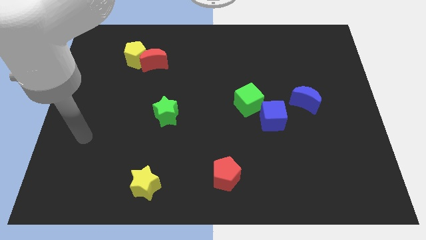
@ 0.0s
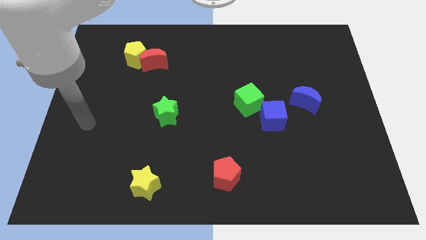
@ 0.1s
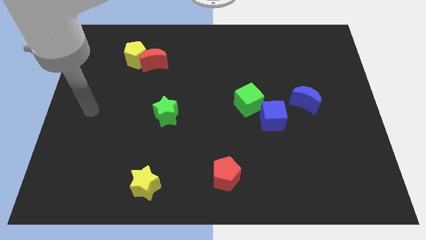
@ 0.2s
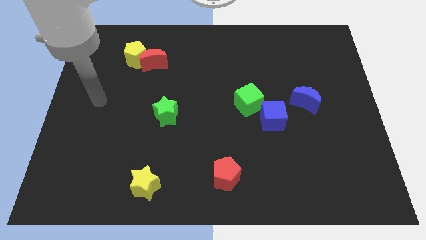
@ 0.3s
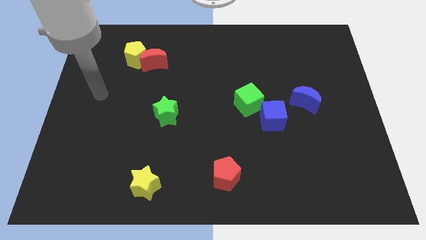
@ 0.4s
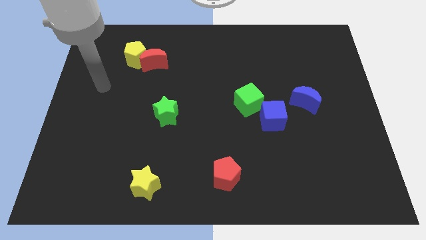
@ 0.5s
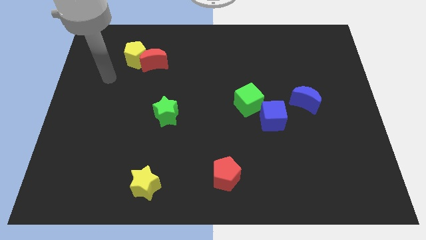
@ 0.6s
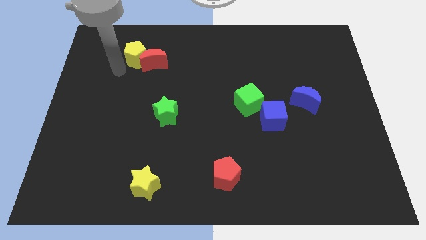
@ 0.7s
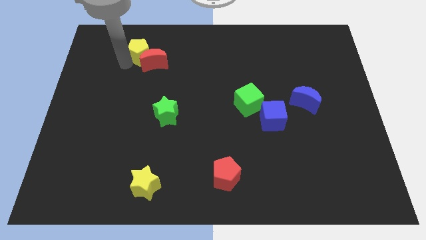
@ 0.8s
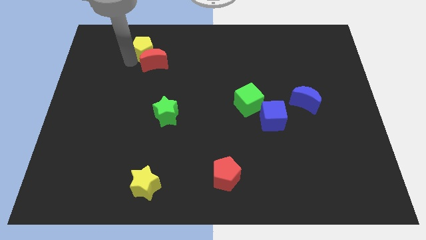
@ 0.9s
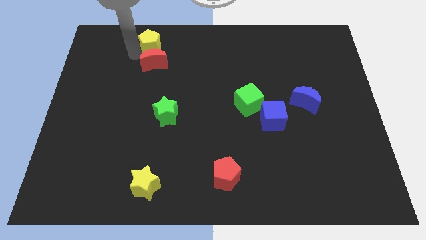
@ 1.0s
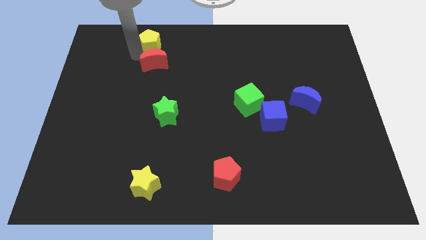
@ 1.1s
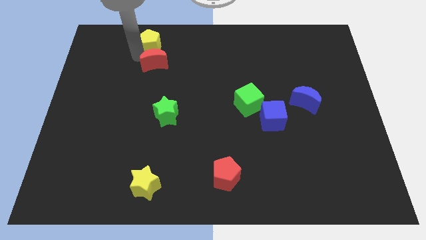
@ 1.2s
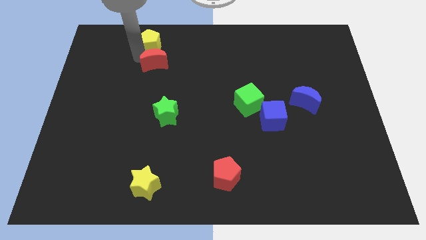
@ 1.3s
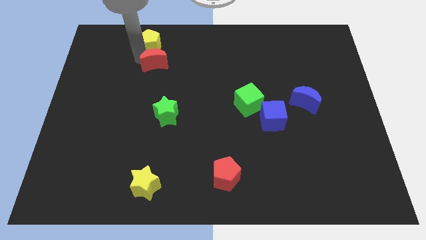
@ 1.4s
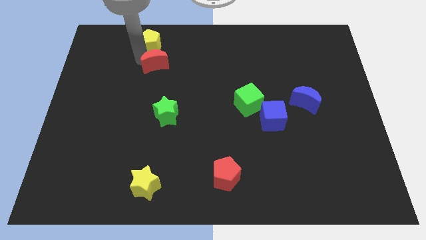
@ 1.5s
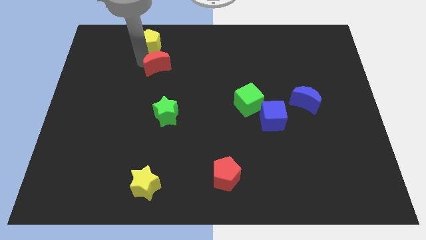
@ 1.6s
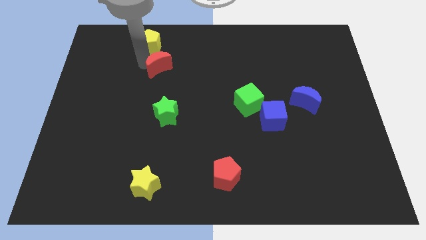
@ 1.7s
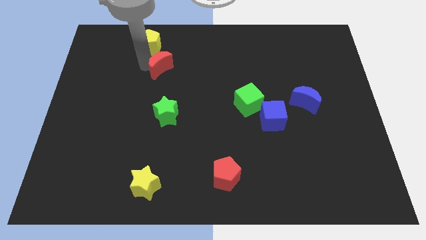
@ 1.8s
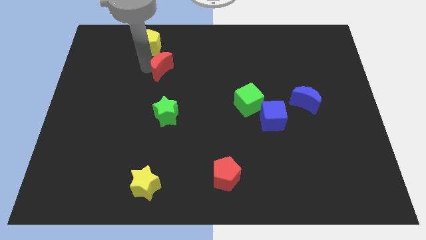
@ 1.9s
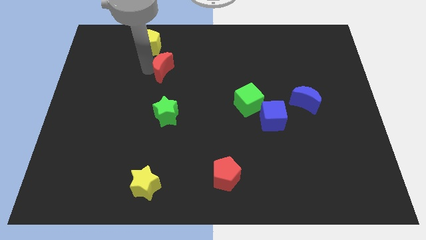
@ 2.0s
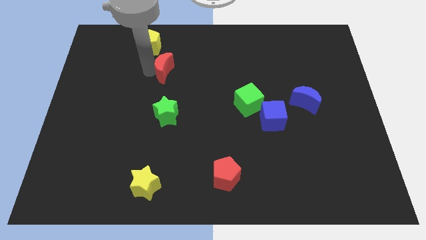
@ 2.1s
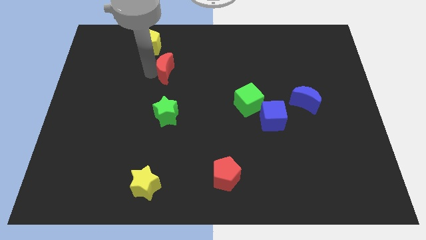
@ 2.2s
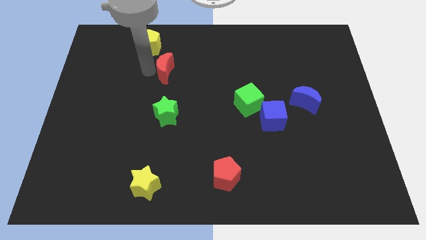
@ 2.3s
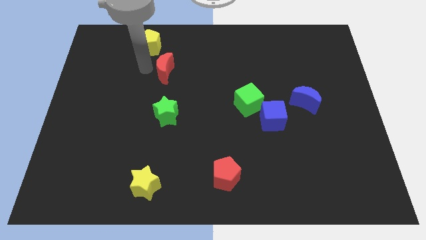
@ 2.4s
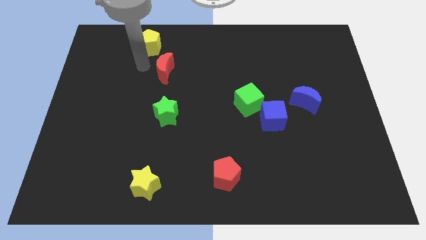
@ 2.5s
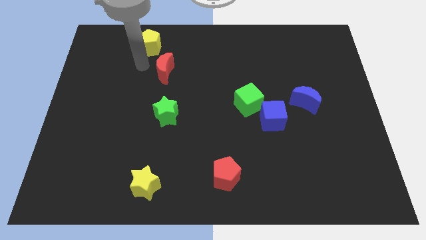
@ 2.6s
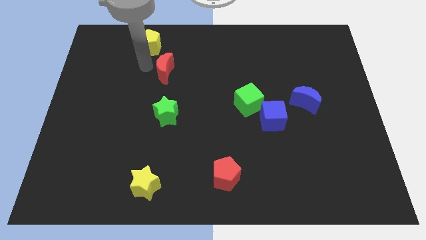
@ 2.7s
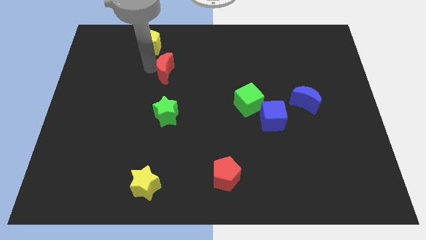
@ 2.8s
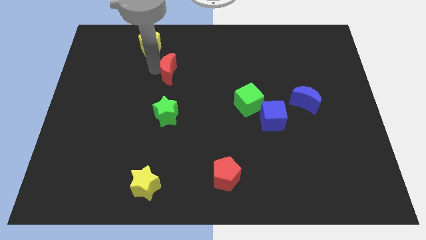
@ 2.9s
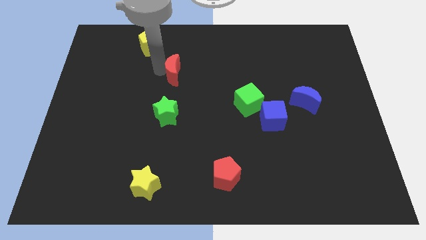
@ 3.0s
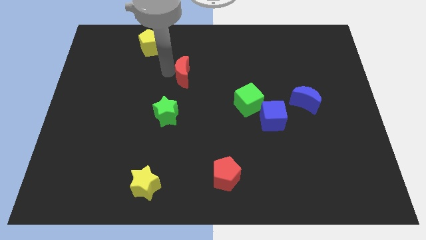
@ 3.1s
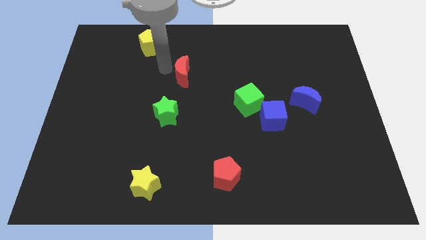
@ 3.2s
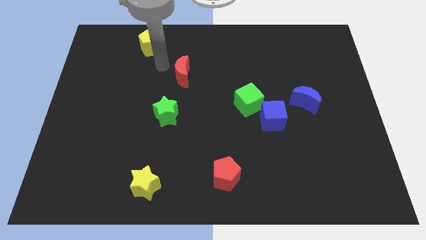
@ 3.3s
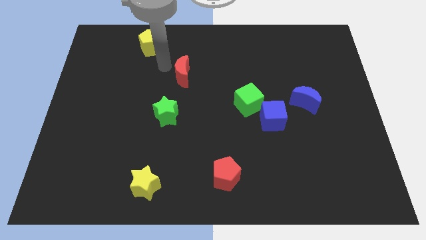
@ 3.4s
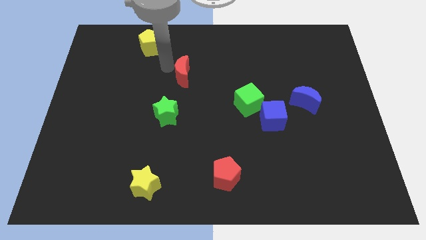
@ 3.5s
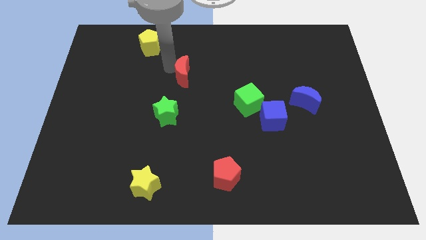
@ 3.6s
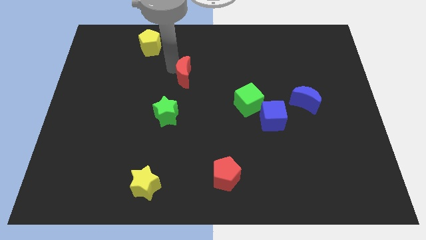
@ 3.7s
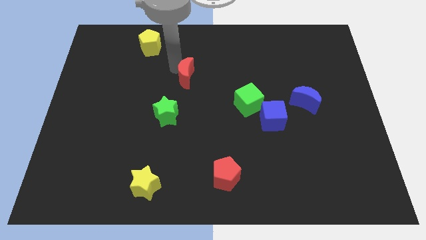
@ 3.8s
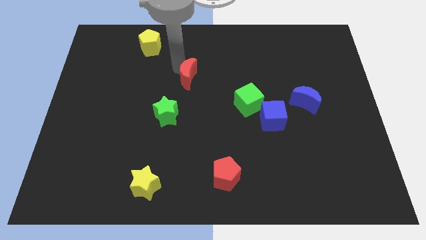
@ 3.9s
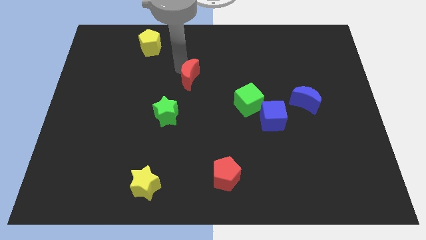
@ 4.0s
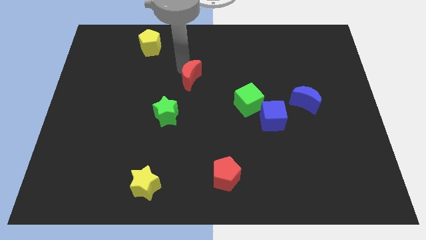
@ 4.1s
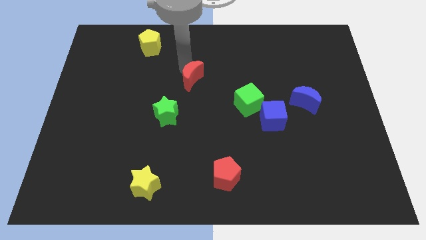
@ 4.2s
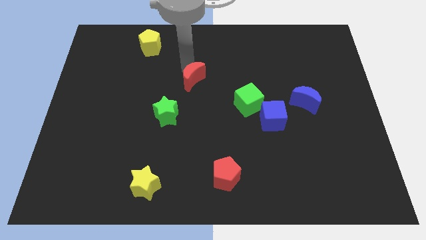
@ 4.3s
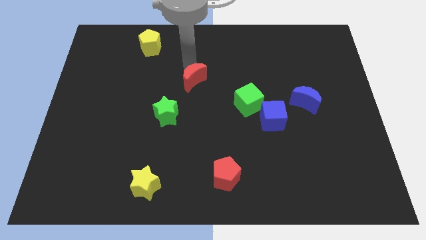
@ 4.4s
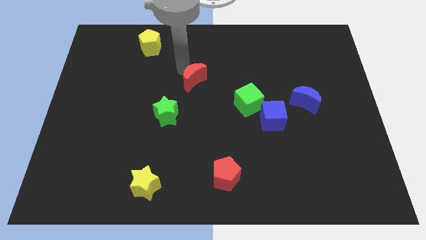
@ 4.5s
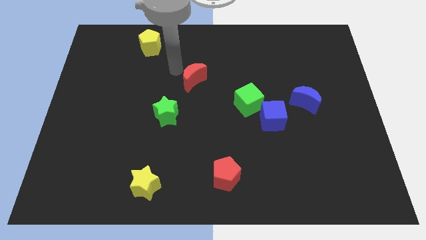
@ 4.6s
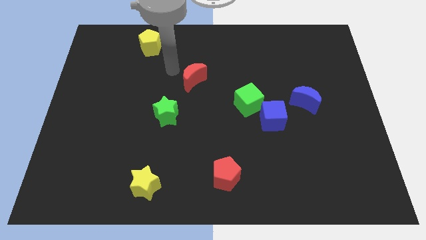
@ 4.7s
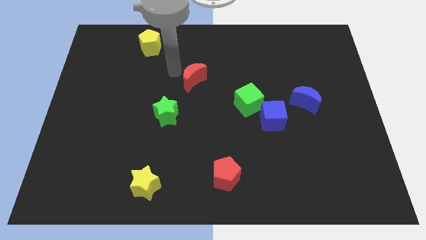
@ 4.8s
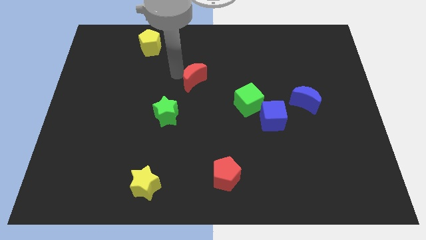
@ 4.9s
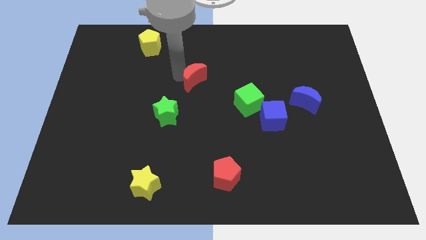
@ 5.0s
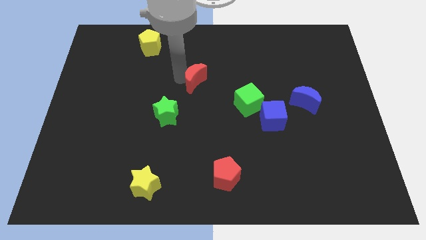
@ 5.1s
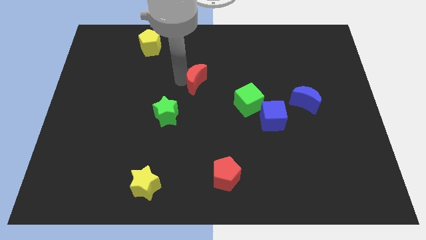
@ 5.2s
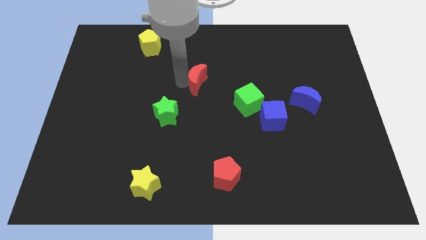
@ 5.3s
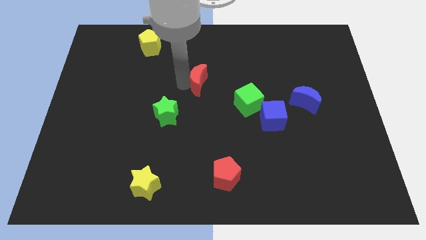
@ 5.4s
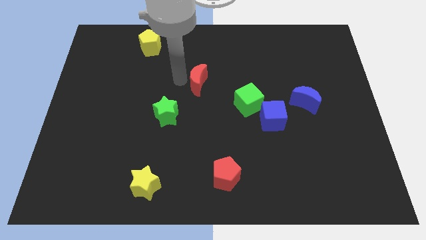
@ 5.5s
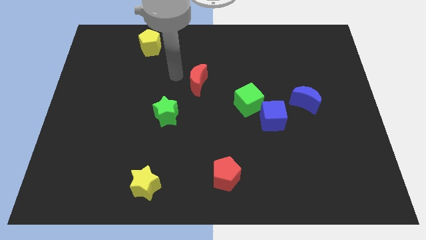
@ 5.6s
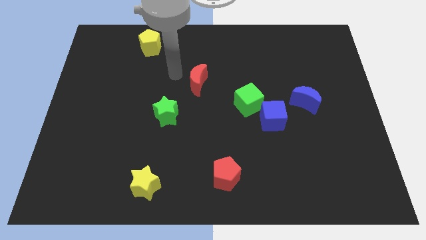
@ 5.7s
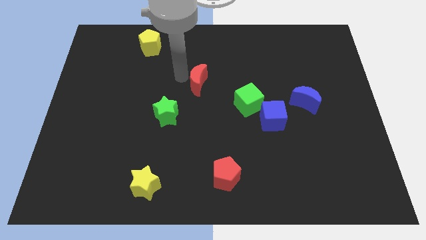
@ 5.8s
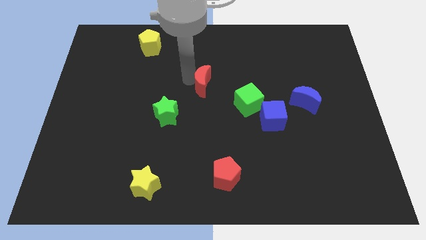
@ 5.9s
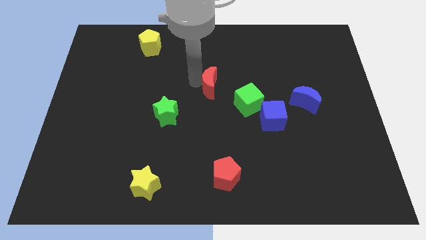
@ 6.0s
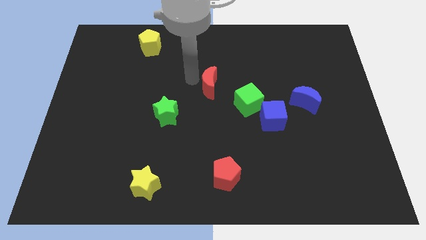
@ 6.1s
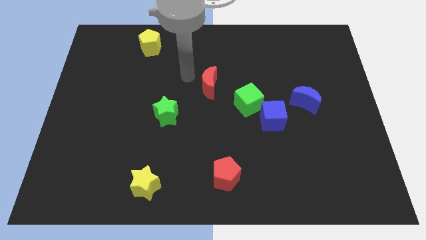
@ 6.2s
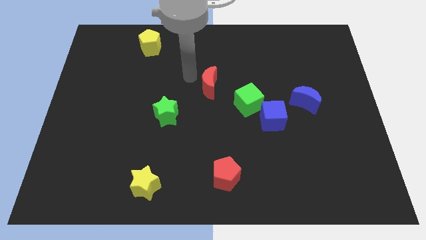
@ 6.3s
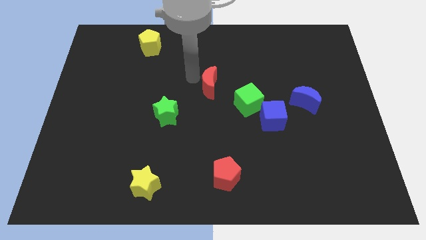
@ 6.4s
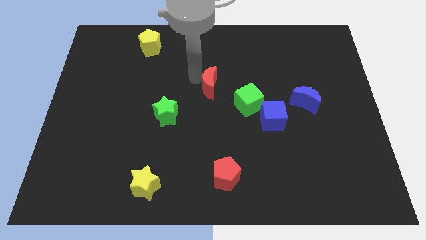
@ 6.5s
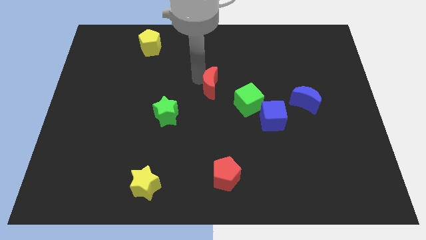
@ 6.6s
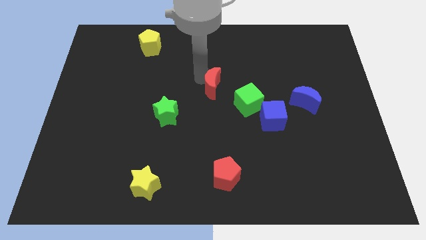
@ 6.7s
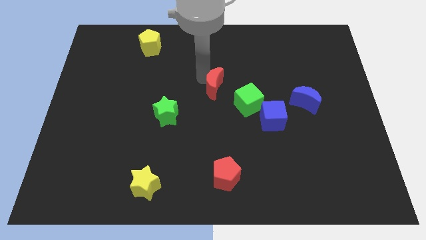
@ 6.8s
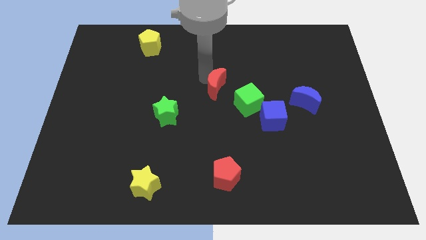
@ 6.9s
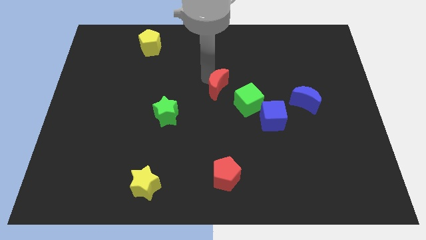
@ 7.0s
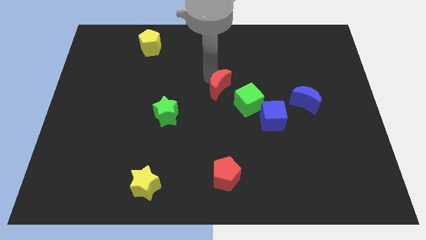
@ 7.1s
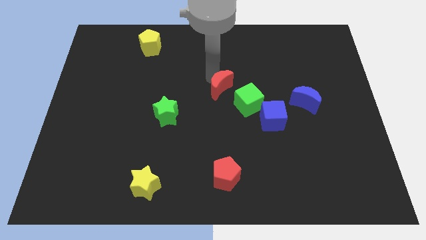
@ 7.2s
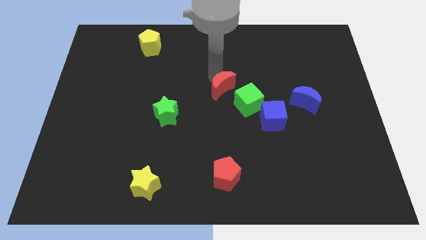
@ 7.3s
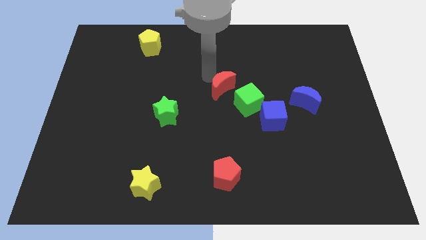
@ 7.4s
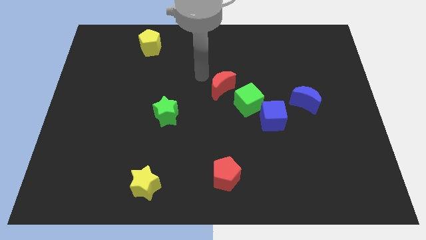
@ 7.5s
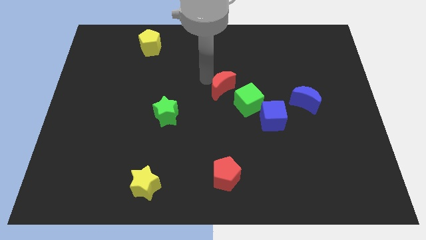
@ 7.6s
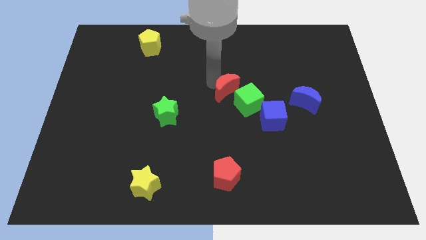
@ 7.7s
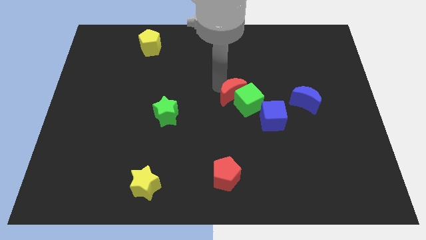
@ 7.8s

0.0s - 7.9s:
push the red moon to the green cube
